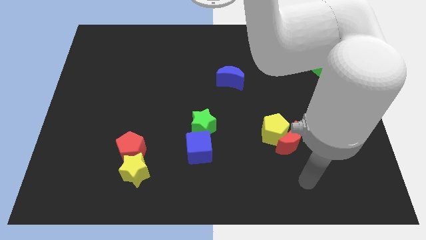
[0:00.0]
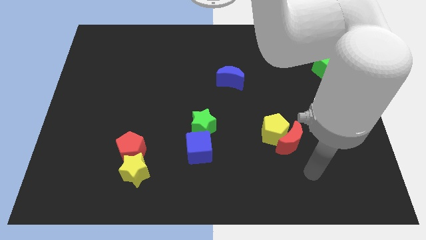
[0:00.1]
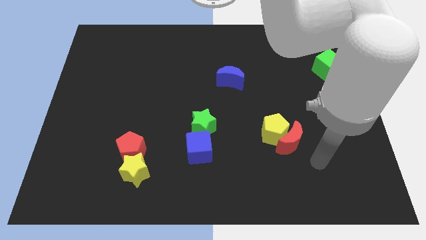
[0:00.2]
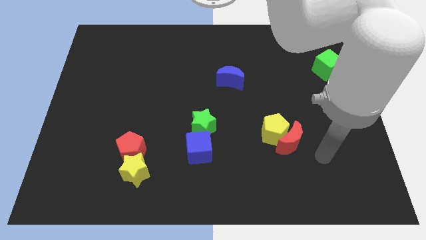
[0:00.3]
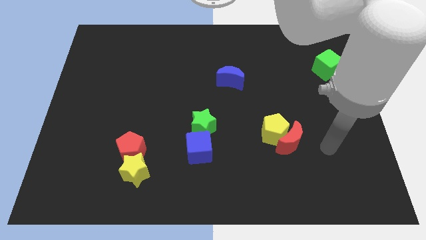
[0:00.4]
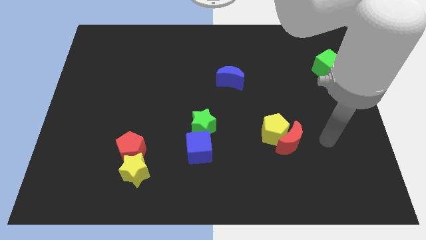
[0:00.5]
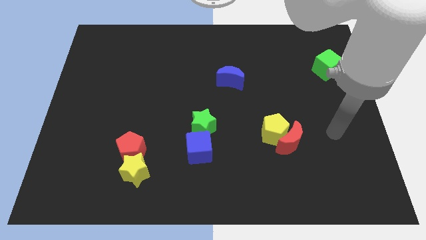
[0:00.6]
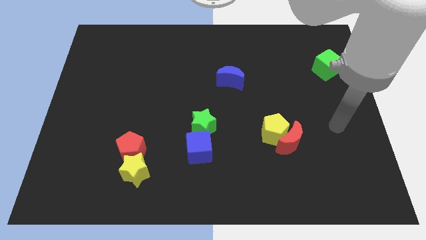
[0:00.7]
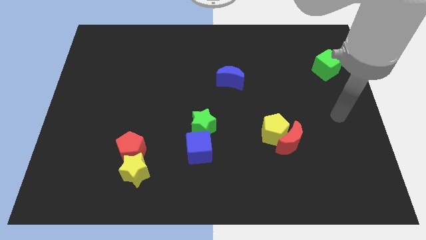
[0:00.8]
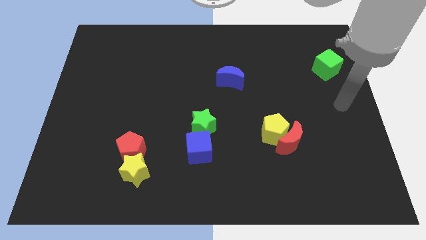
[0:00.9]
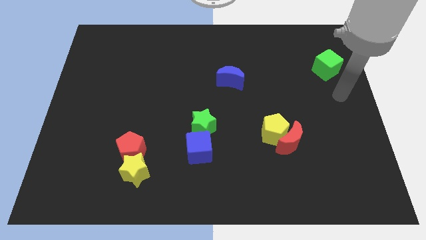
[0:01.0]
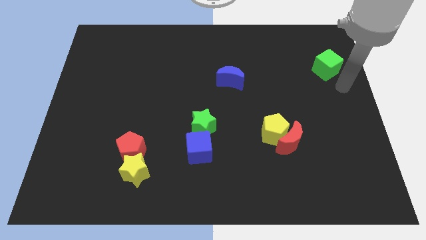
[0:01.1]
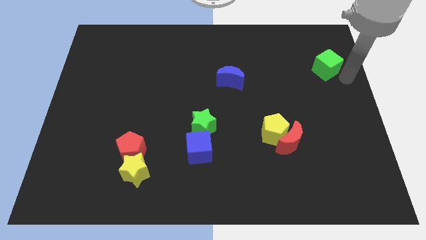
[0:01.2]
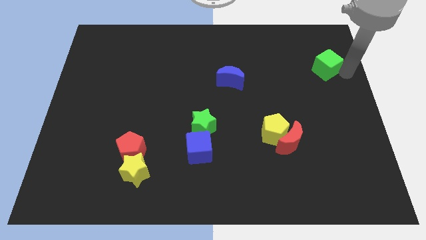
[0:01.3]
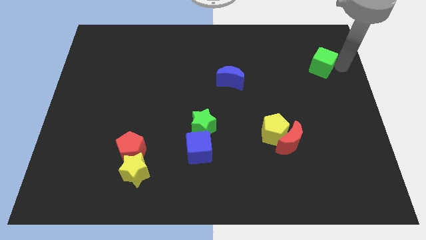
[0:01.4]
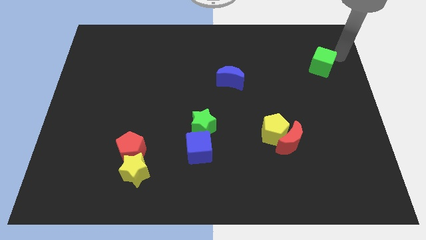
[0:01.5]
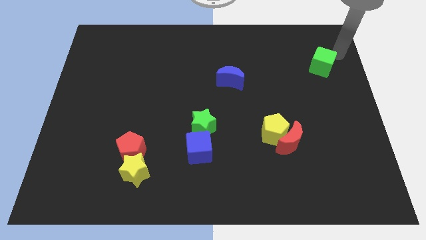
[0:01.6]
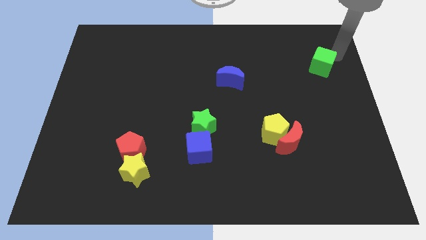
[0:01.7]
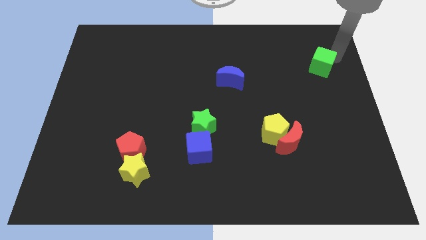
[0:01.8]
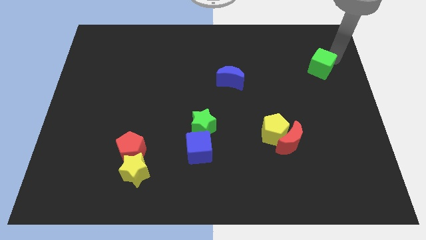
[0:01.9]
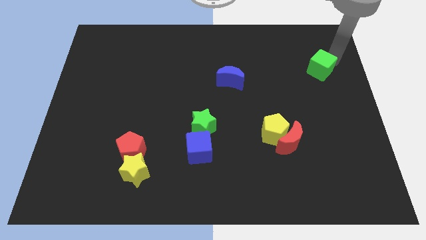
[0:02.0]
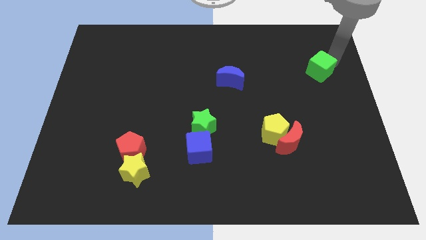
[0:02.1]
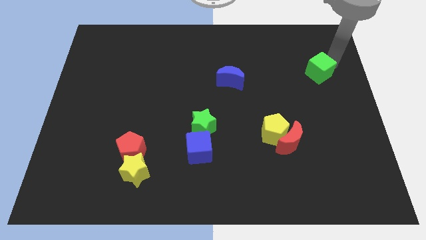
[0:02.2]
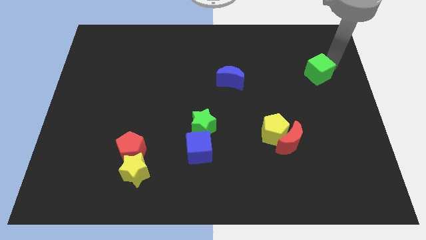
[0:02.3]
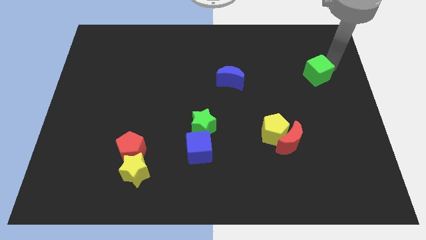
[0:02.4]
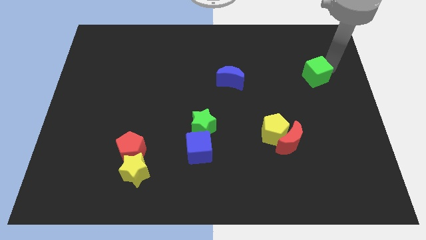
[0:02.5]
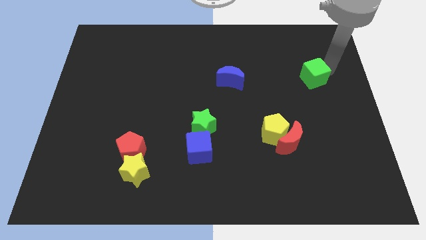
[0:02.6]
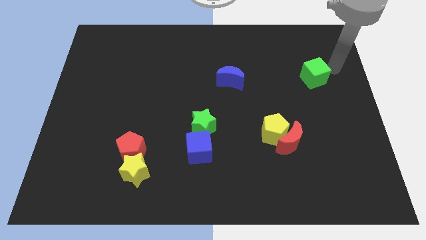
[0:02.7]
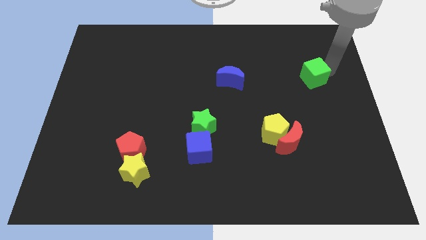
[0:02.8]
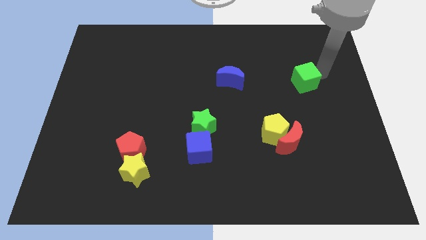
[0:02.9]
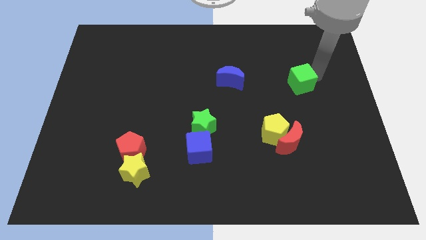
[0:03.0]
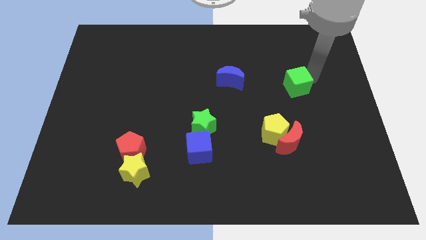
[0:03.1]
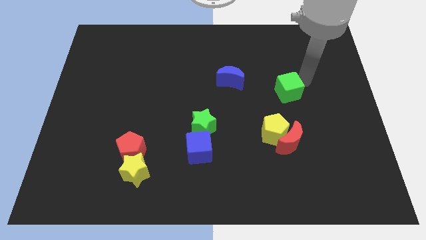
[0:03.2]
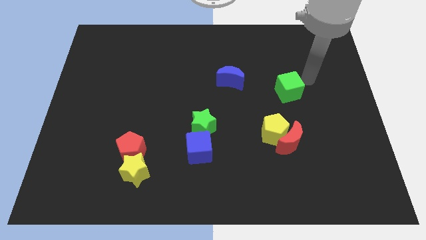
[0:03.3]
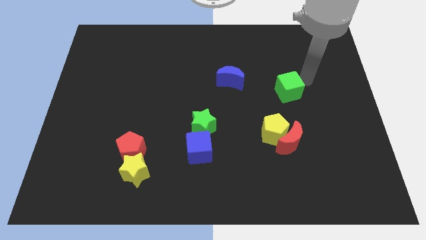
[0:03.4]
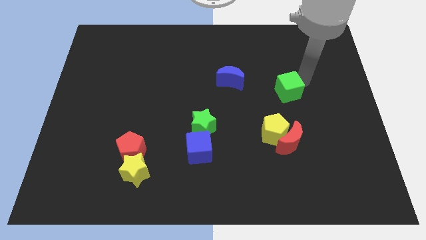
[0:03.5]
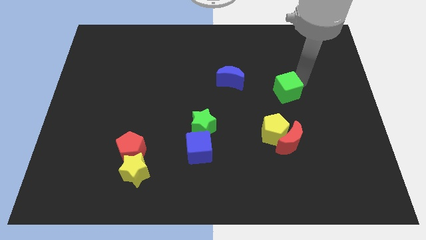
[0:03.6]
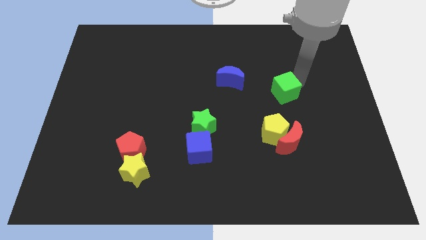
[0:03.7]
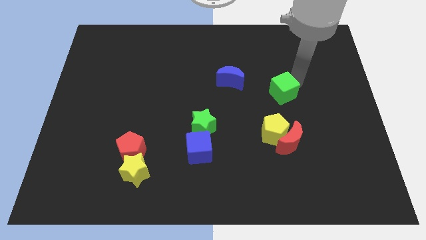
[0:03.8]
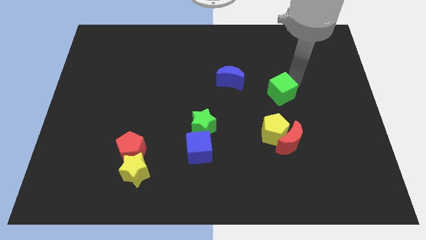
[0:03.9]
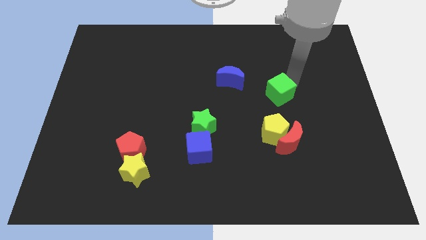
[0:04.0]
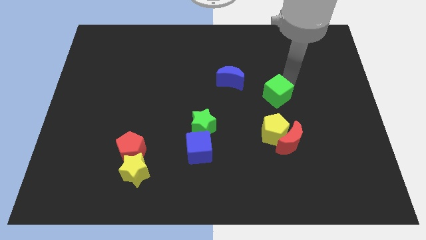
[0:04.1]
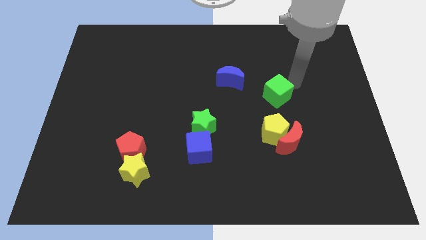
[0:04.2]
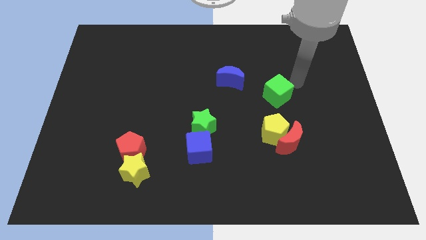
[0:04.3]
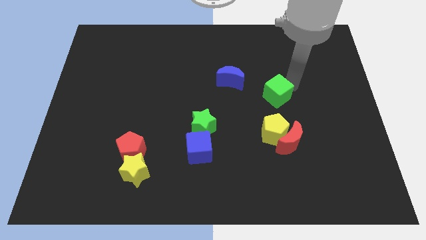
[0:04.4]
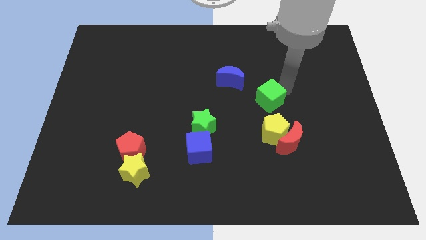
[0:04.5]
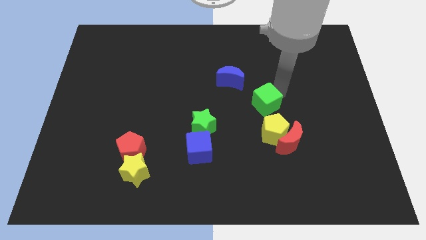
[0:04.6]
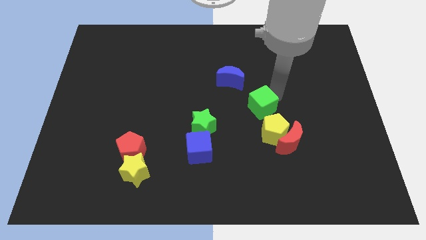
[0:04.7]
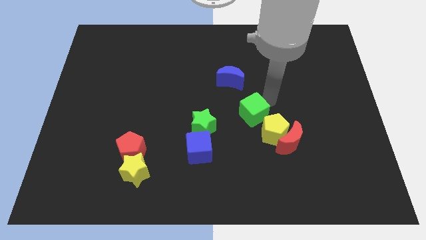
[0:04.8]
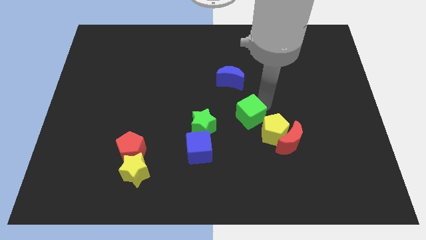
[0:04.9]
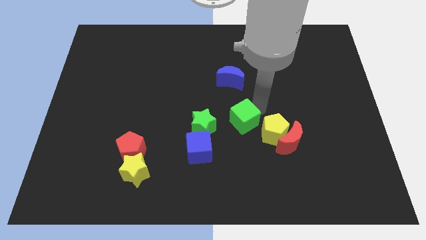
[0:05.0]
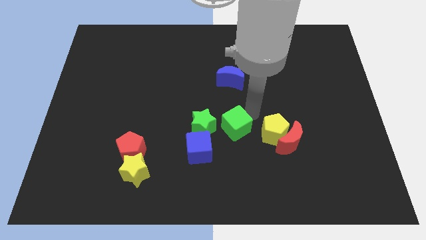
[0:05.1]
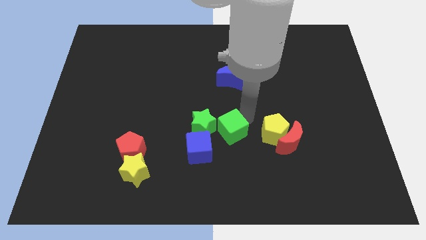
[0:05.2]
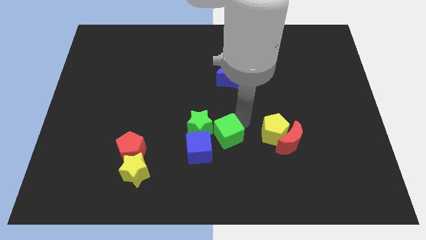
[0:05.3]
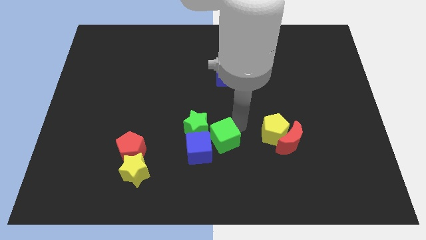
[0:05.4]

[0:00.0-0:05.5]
push the green cube towards the blue cube

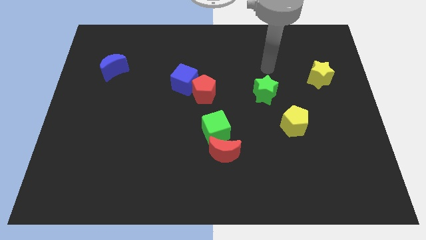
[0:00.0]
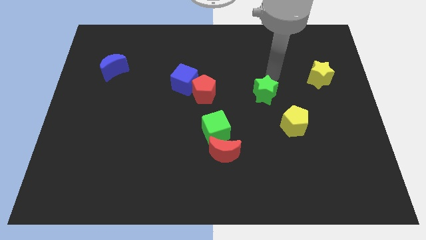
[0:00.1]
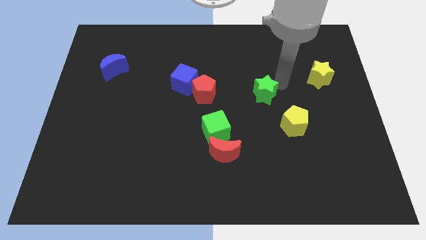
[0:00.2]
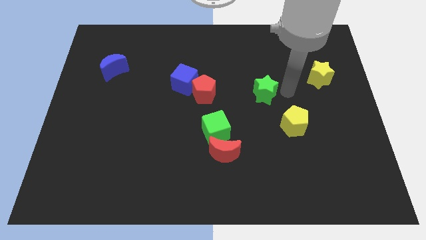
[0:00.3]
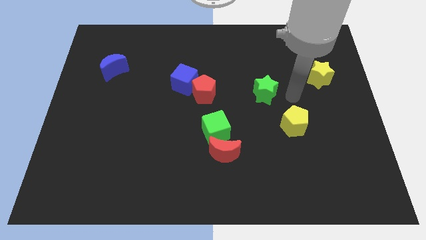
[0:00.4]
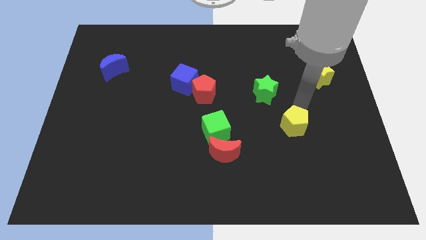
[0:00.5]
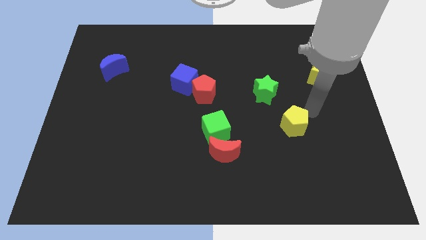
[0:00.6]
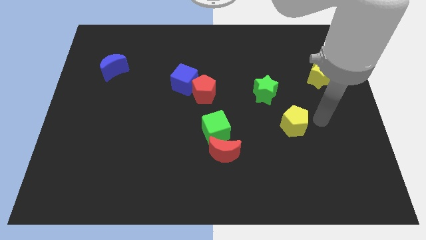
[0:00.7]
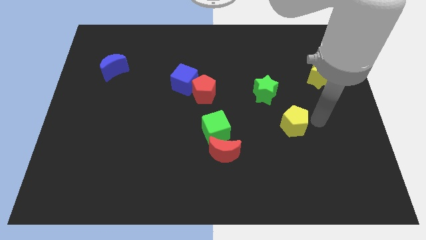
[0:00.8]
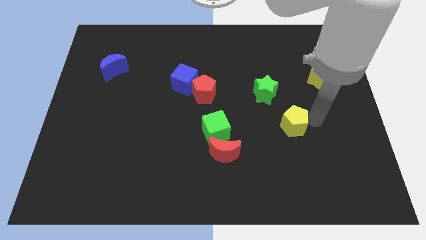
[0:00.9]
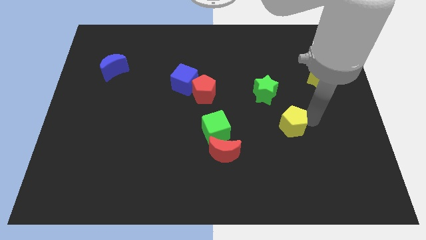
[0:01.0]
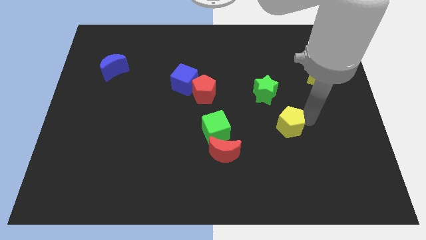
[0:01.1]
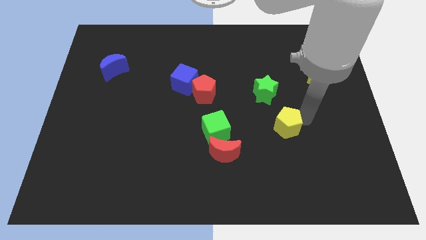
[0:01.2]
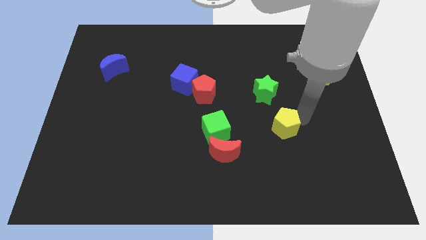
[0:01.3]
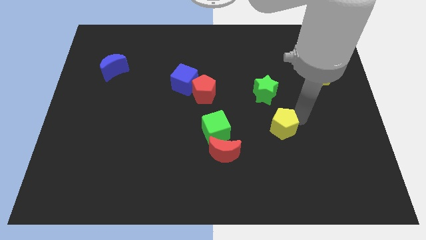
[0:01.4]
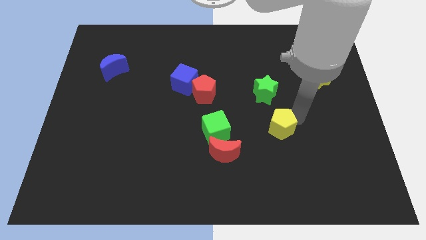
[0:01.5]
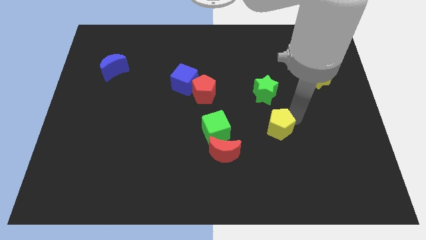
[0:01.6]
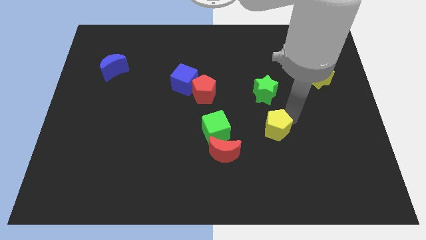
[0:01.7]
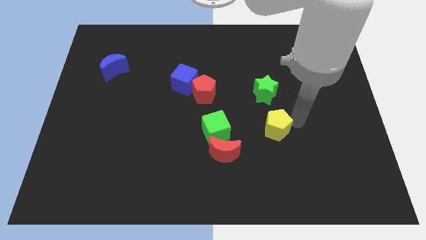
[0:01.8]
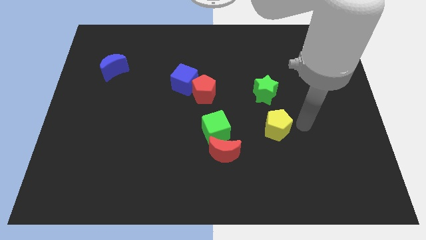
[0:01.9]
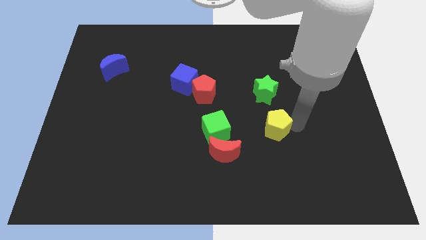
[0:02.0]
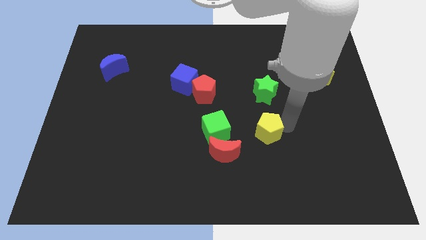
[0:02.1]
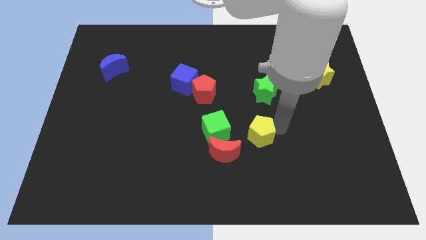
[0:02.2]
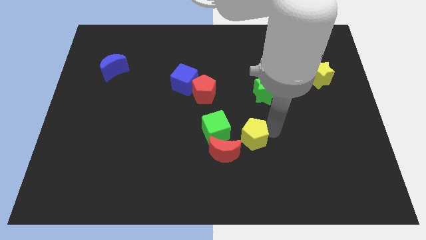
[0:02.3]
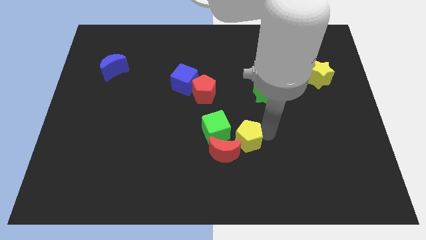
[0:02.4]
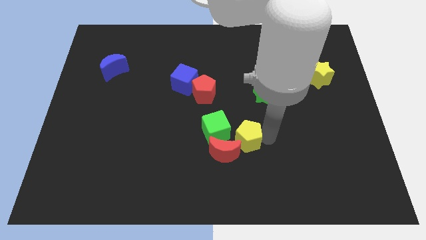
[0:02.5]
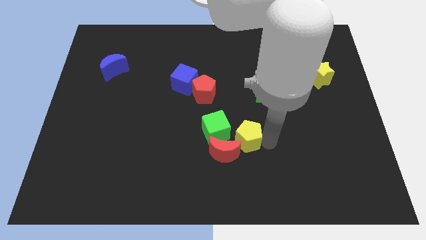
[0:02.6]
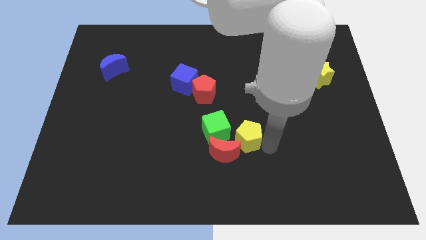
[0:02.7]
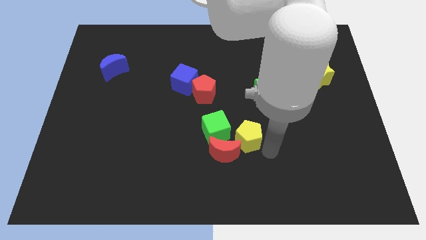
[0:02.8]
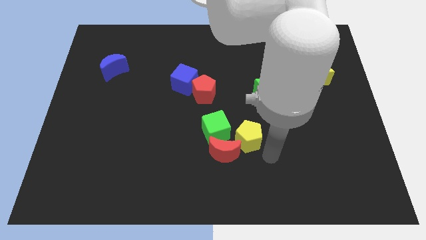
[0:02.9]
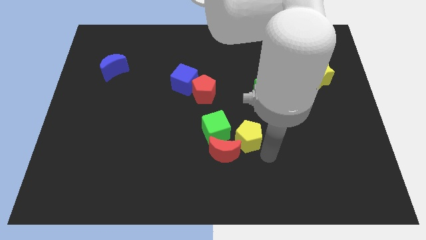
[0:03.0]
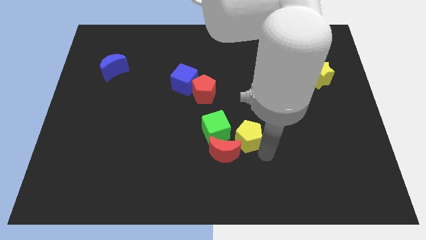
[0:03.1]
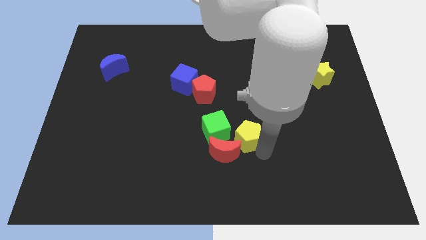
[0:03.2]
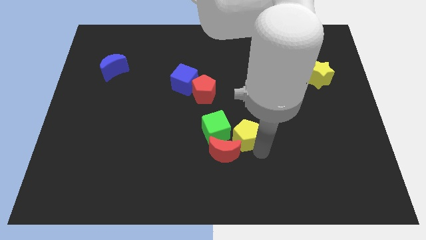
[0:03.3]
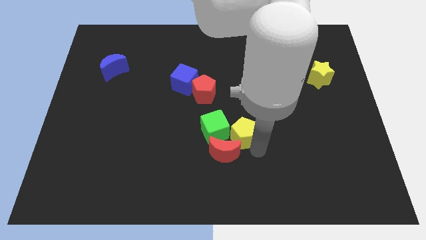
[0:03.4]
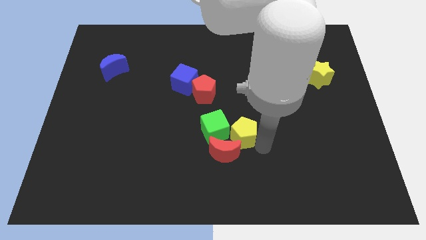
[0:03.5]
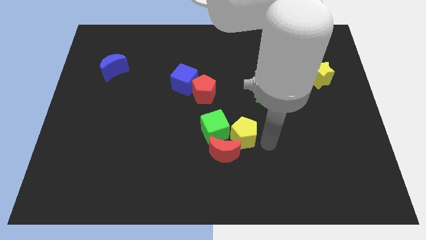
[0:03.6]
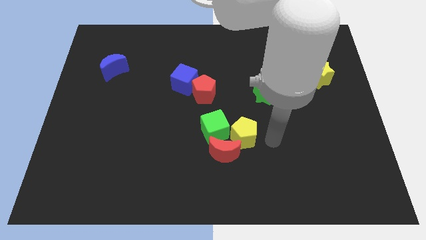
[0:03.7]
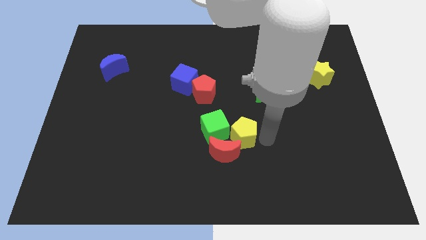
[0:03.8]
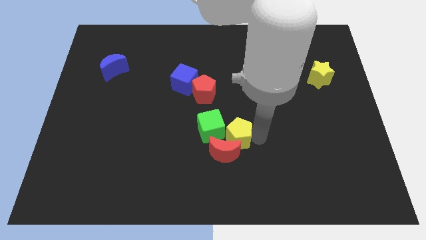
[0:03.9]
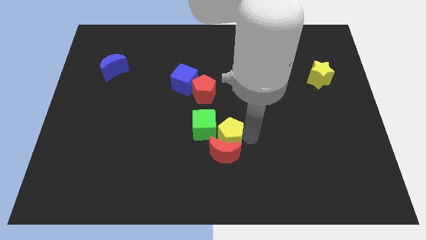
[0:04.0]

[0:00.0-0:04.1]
slide the yellow pentagon towards the green cube
